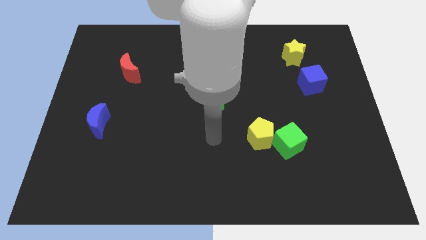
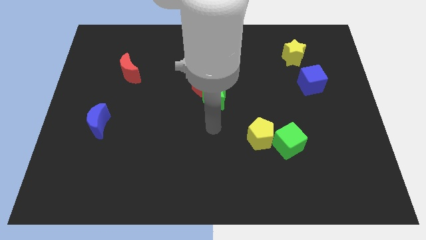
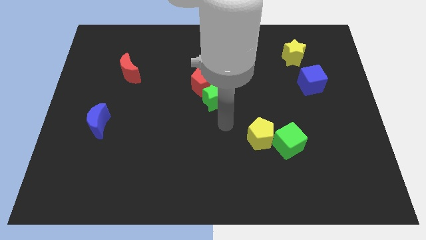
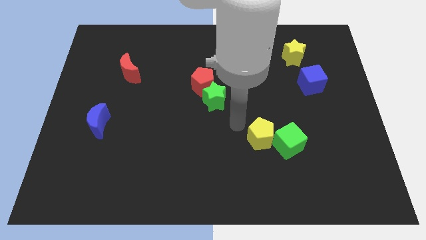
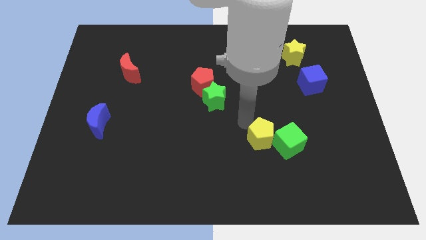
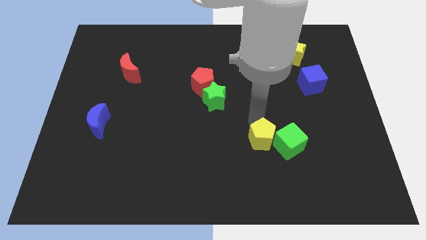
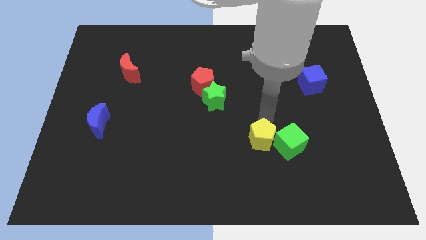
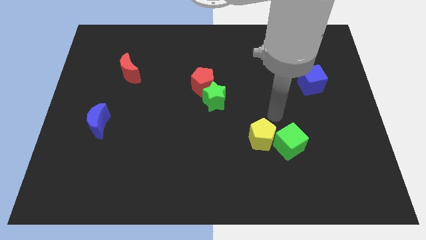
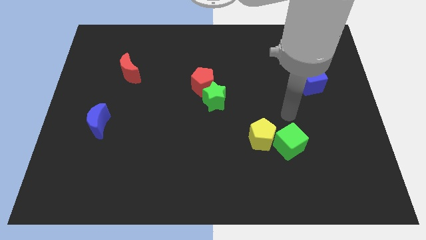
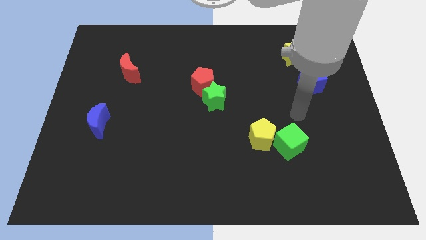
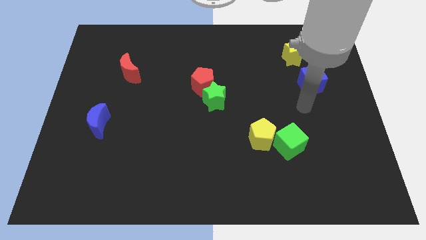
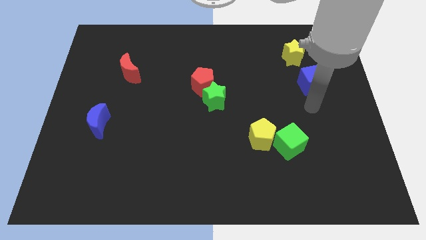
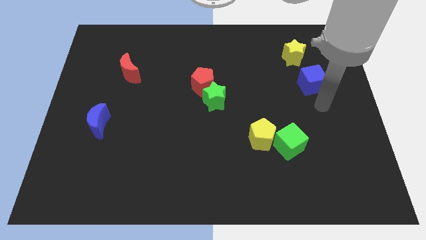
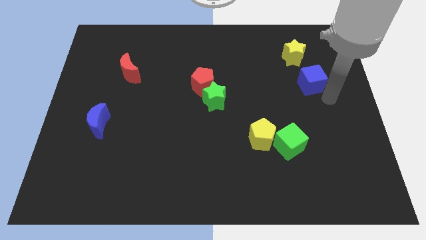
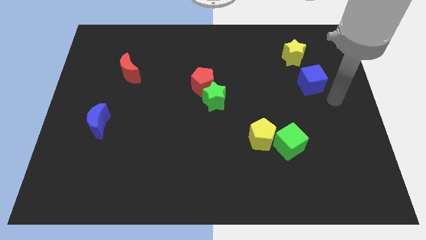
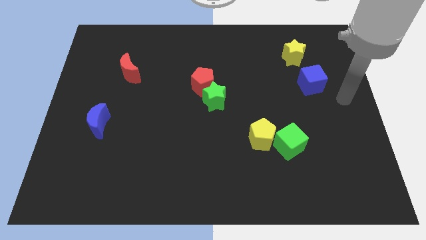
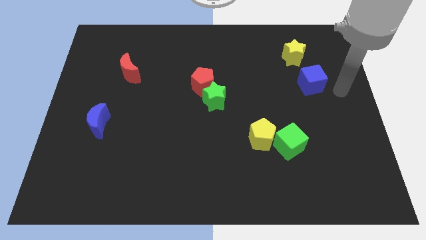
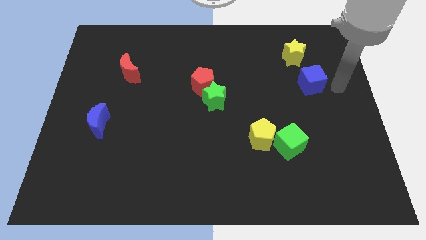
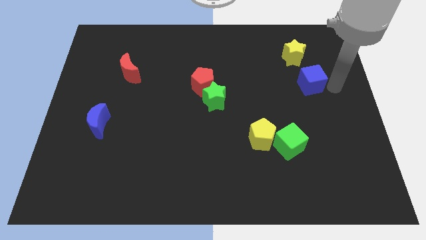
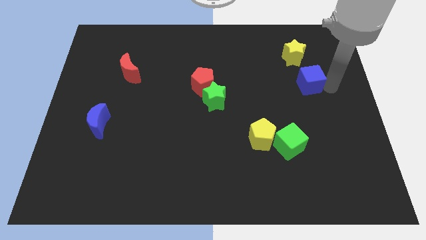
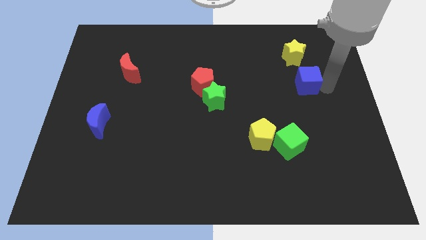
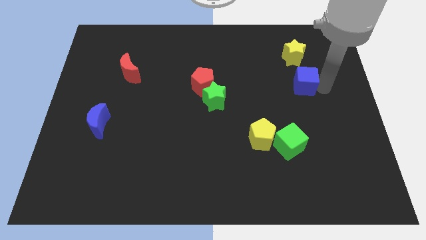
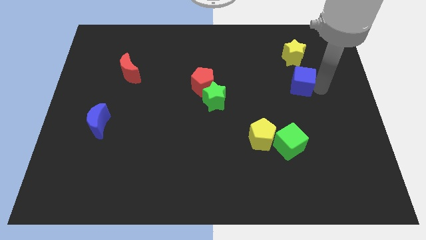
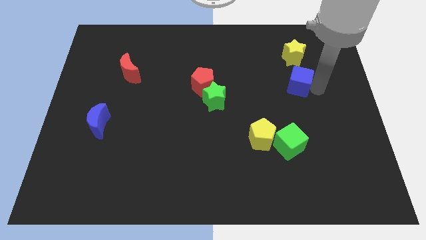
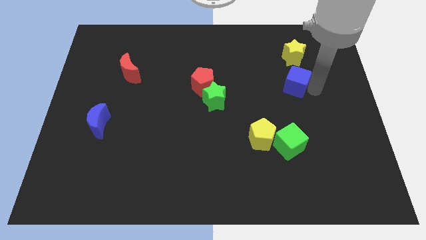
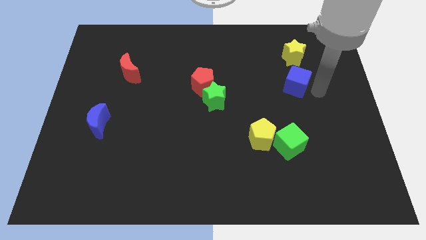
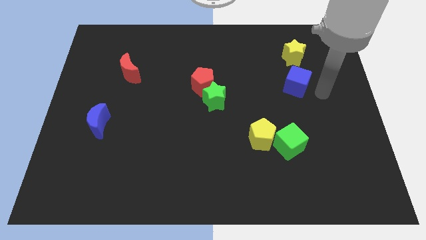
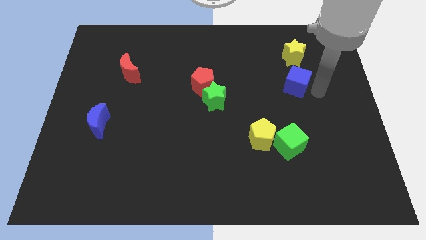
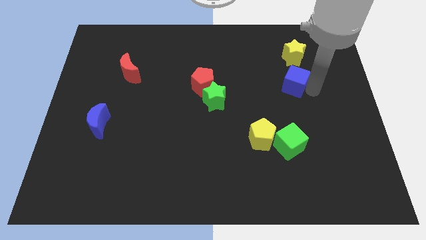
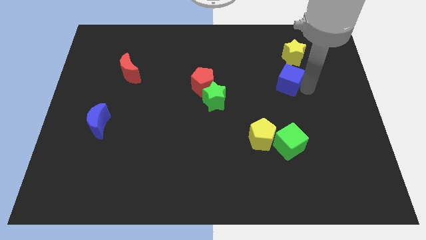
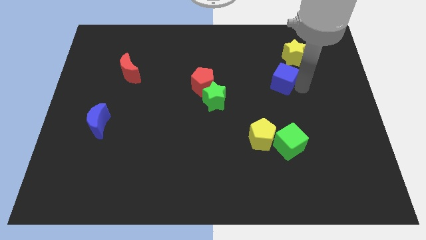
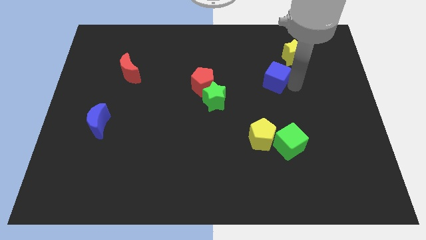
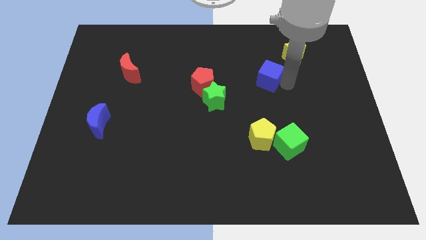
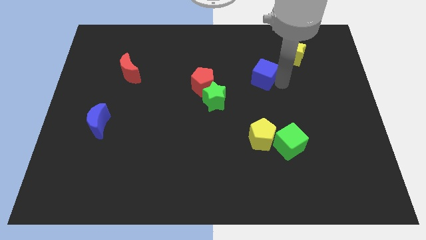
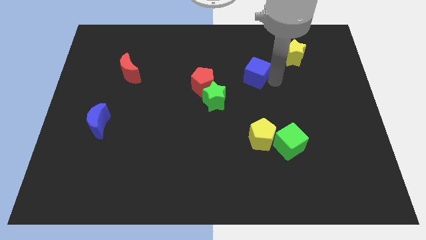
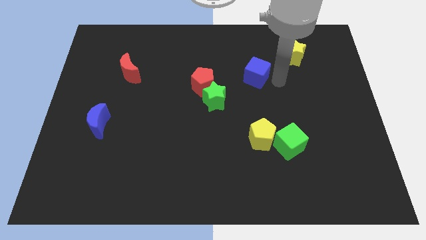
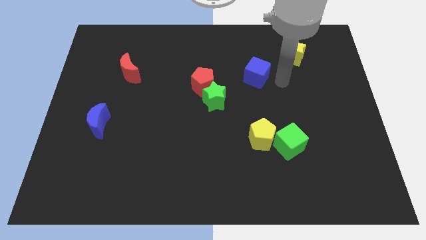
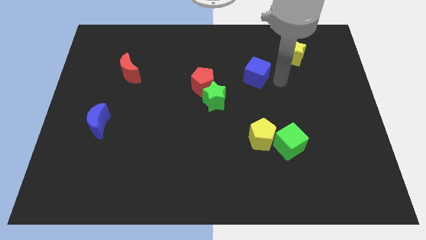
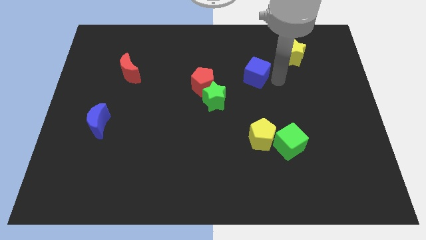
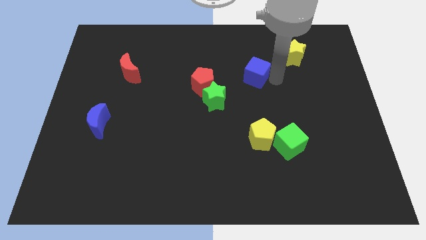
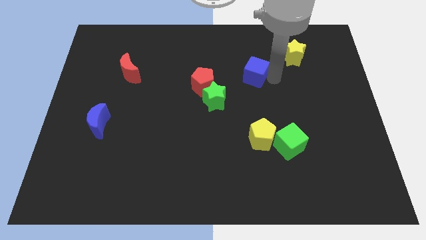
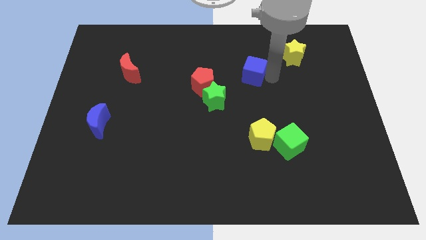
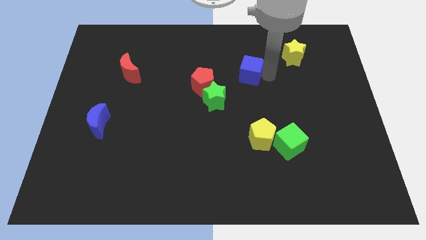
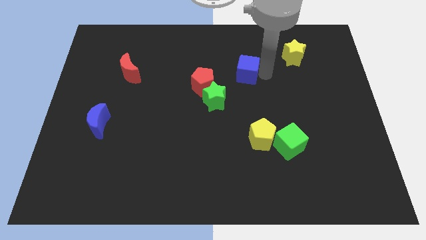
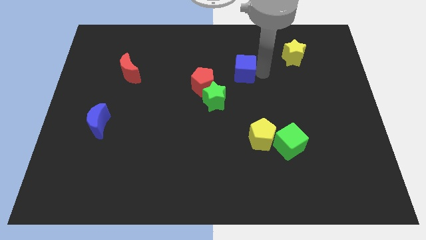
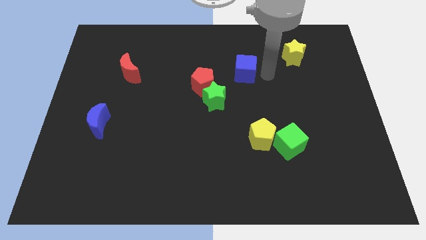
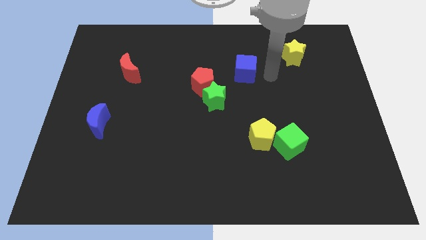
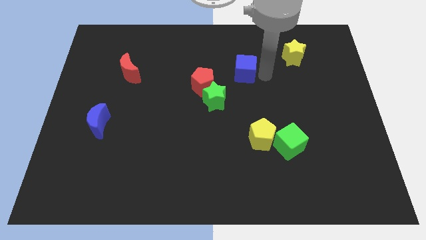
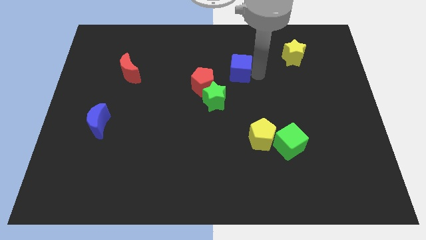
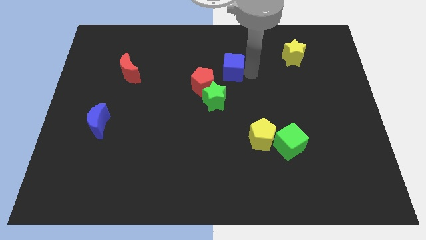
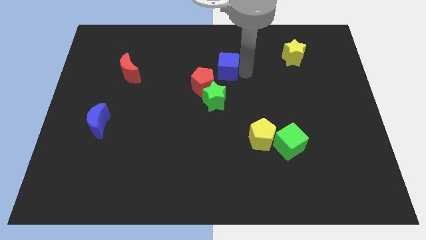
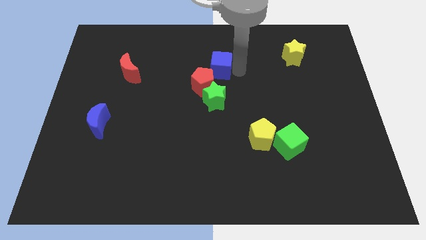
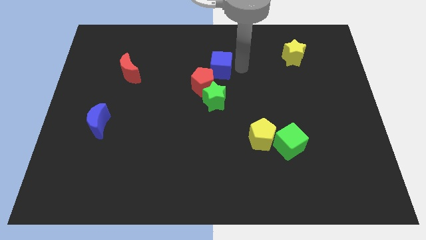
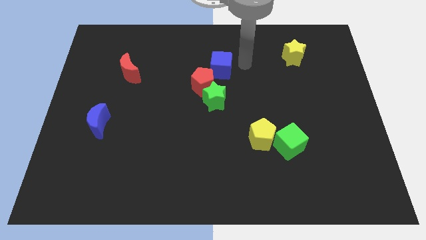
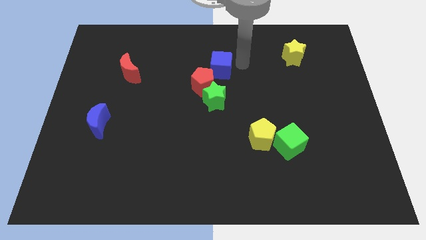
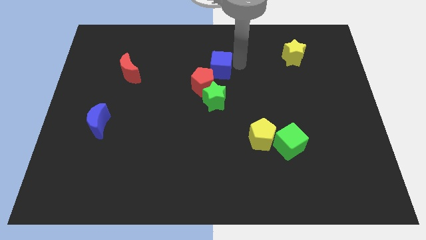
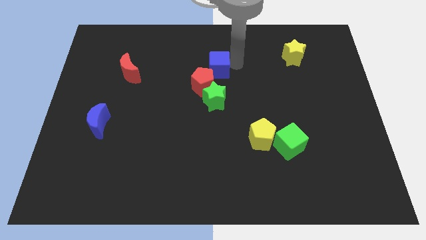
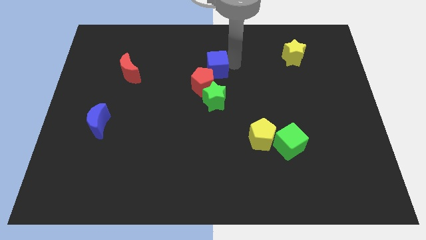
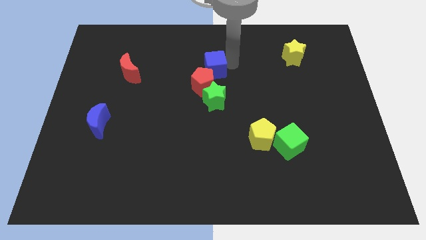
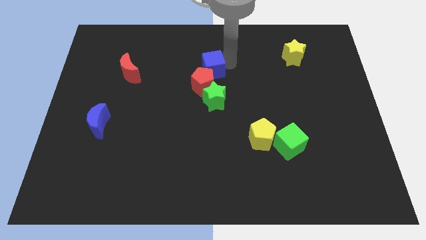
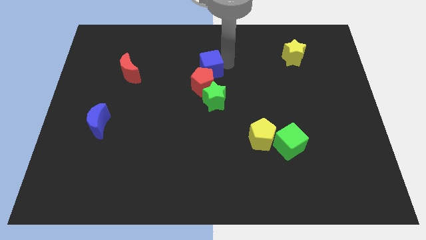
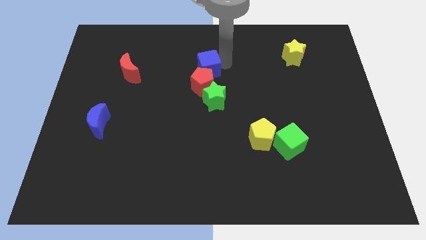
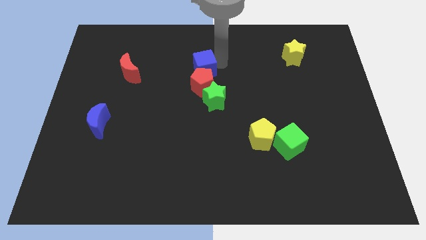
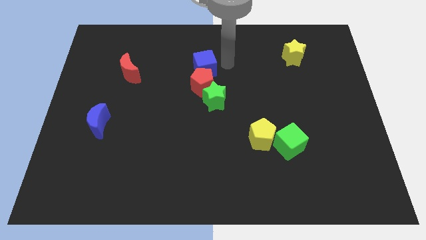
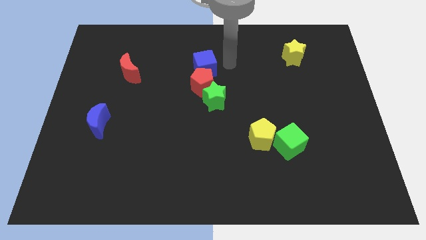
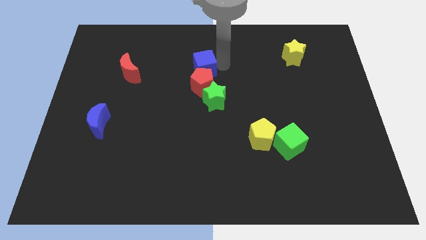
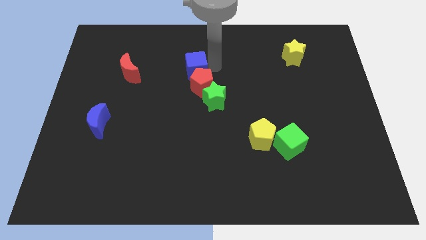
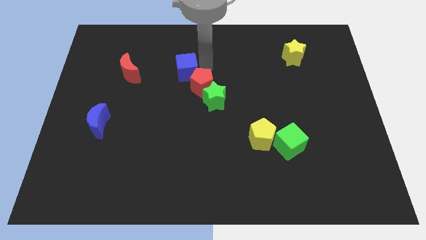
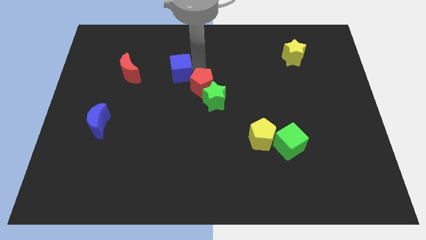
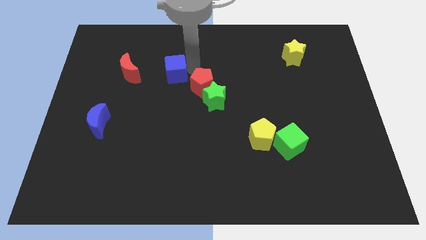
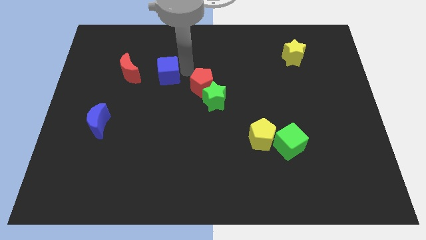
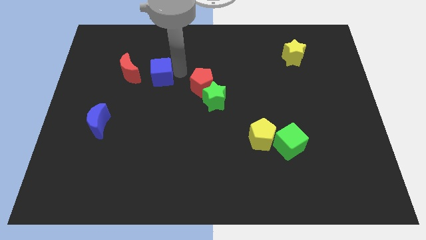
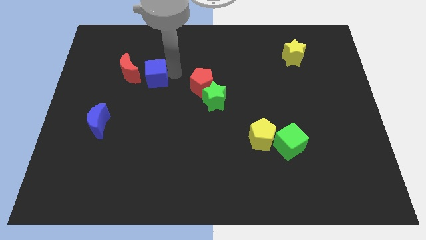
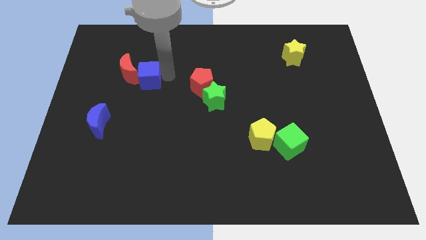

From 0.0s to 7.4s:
put the blue cube to the red moon

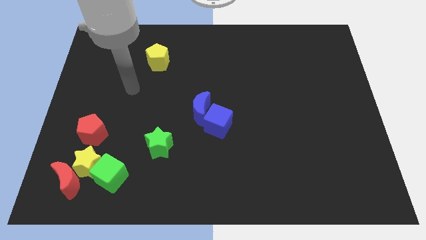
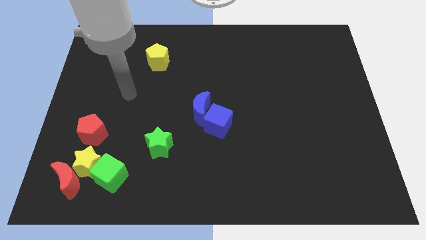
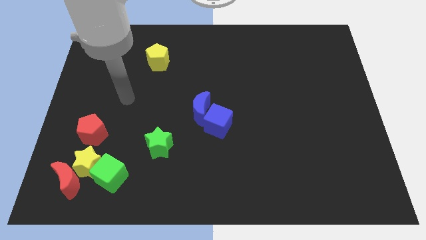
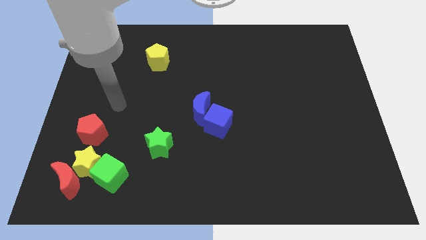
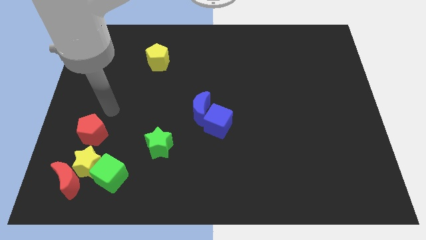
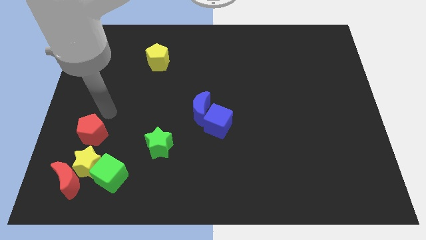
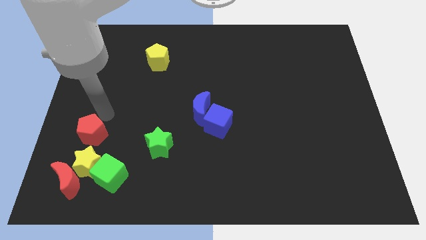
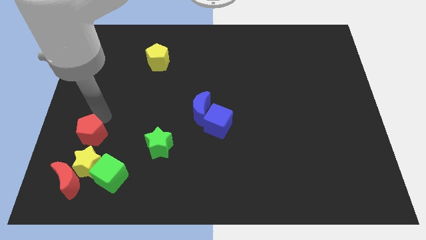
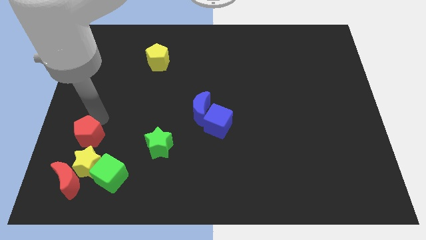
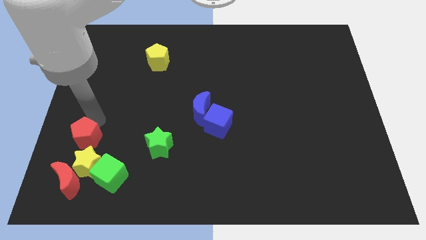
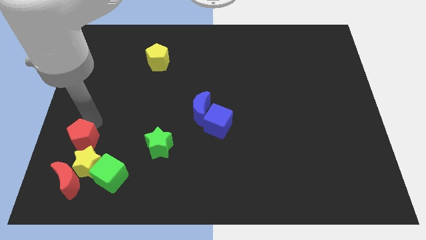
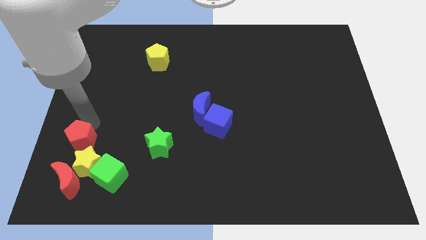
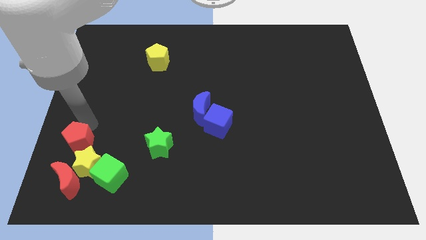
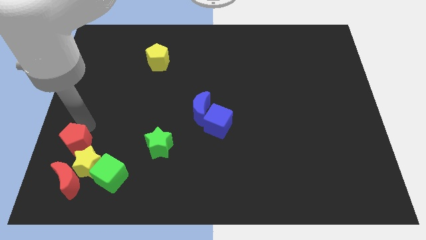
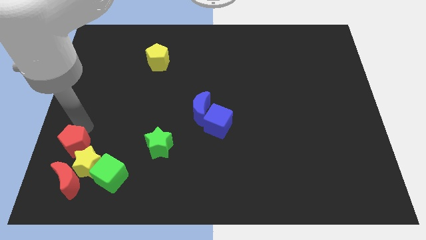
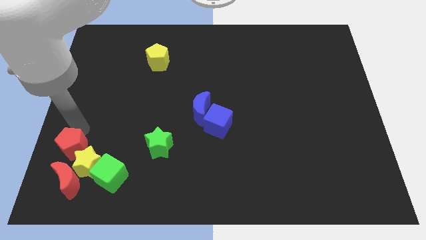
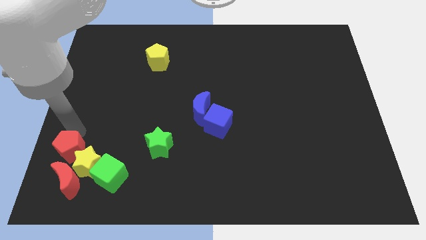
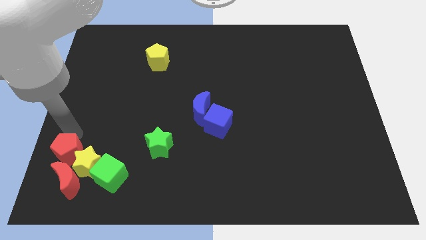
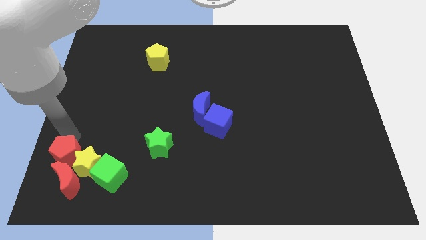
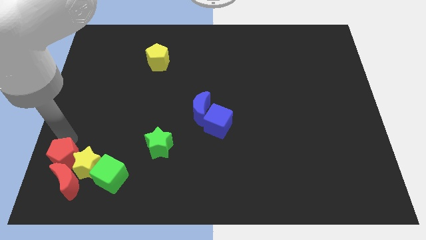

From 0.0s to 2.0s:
put the red pentagon next to the red moon
